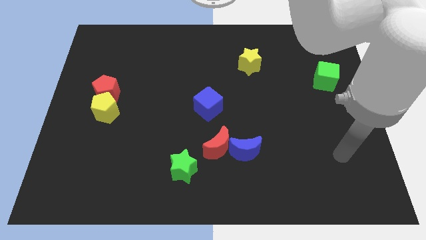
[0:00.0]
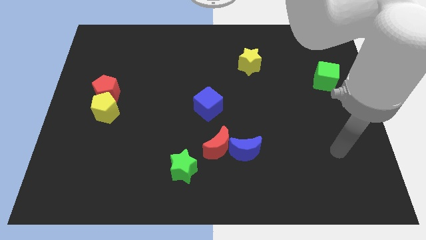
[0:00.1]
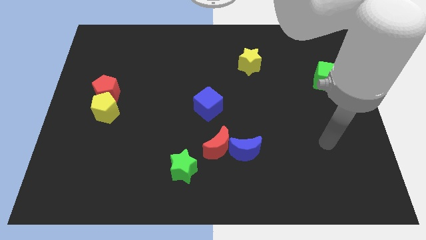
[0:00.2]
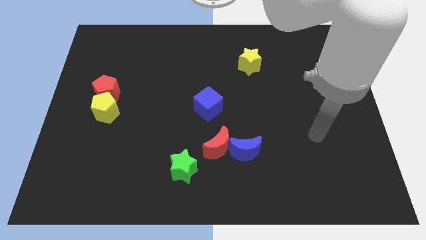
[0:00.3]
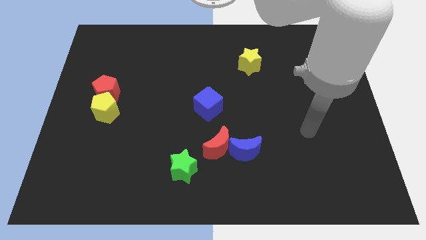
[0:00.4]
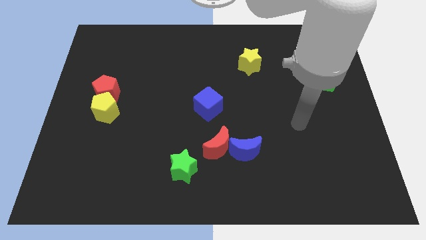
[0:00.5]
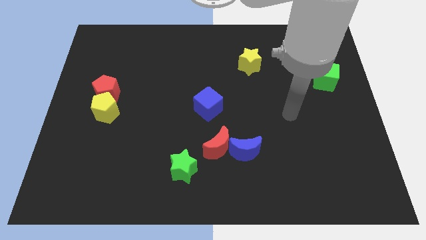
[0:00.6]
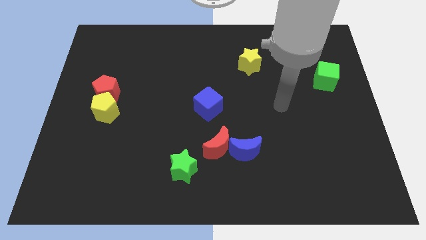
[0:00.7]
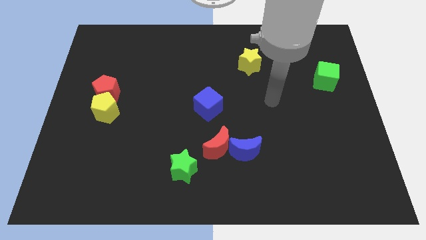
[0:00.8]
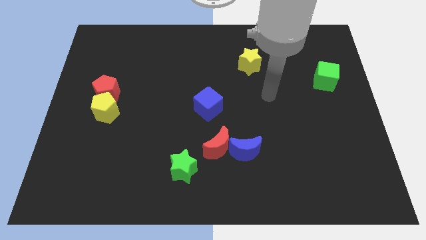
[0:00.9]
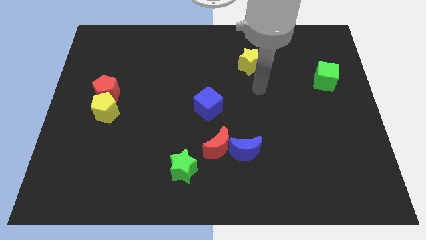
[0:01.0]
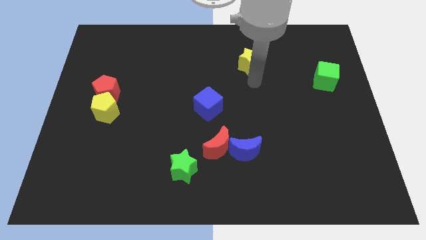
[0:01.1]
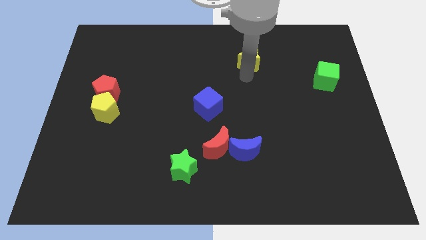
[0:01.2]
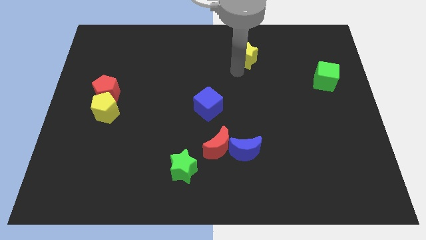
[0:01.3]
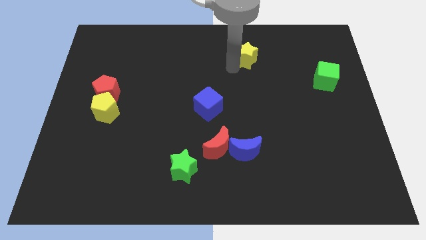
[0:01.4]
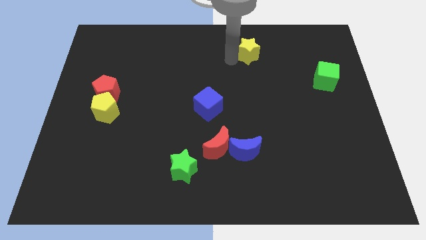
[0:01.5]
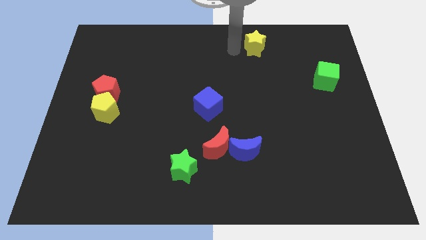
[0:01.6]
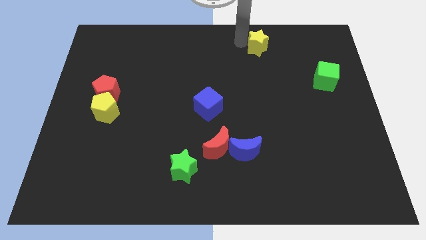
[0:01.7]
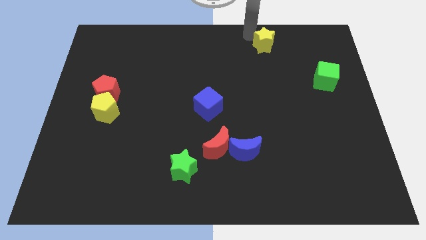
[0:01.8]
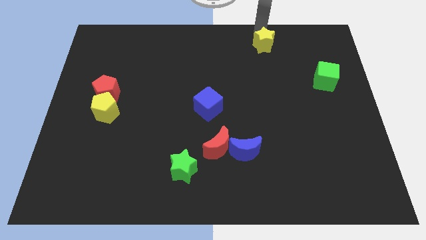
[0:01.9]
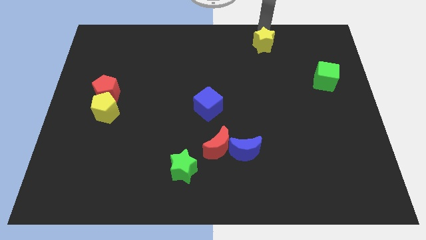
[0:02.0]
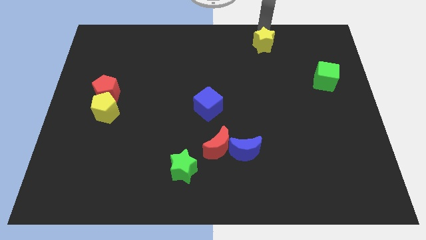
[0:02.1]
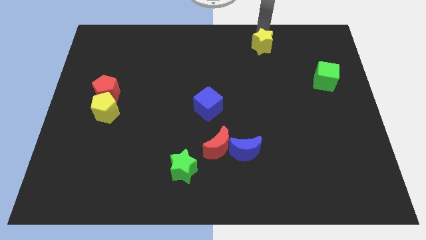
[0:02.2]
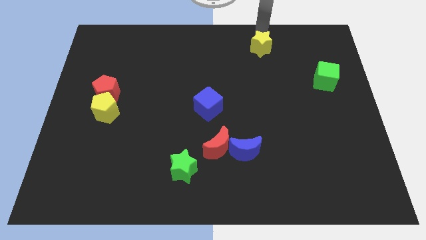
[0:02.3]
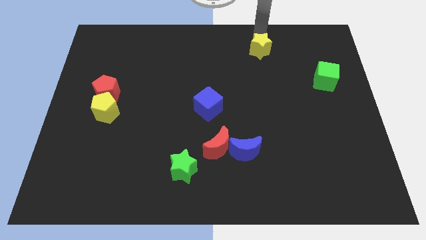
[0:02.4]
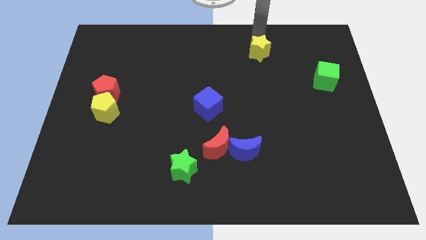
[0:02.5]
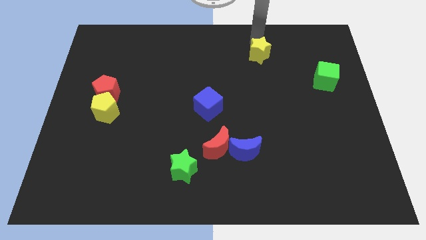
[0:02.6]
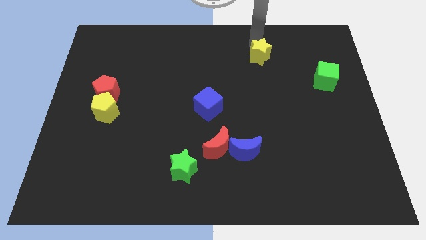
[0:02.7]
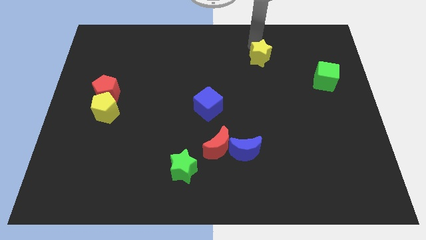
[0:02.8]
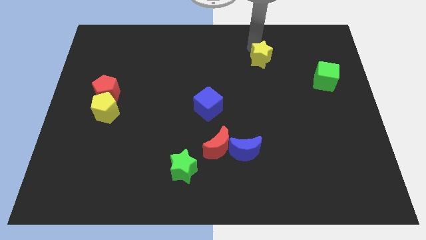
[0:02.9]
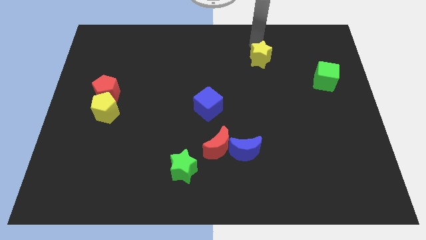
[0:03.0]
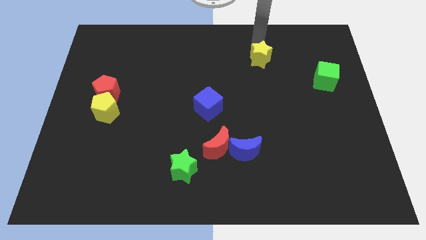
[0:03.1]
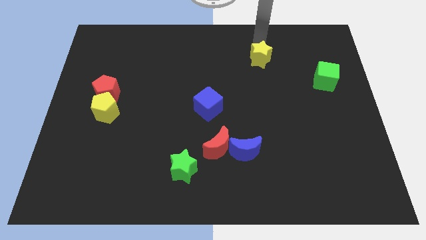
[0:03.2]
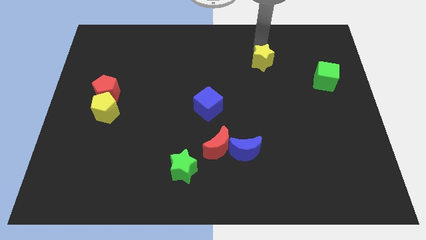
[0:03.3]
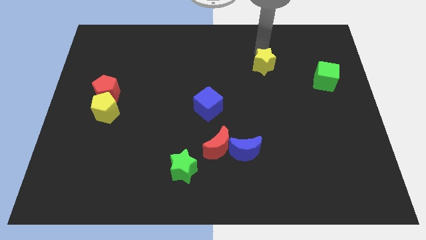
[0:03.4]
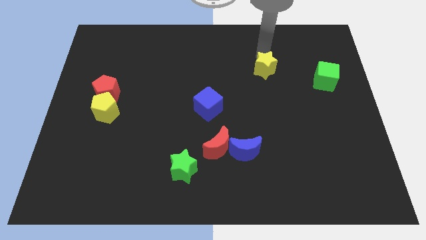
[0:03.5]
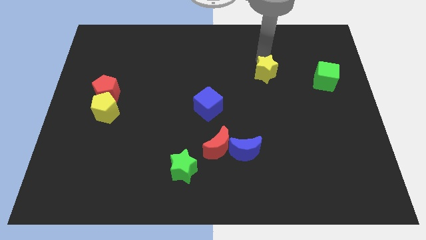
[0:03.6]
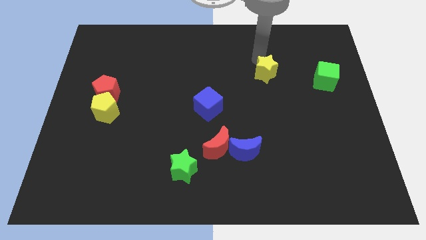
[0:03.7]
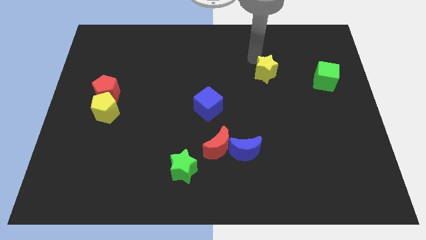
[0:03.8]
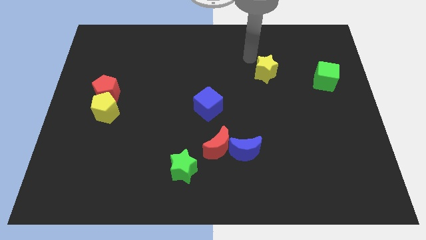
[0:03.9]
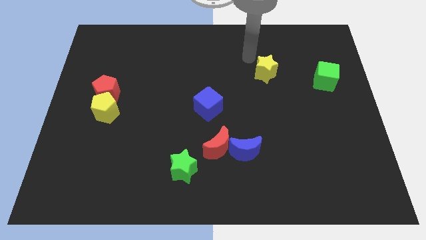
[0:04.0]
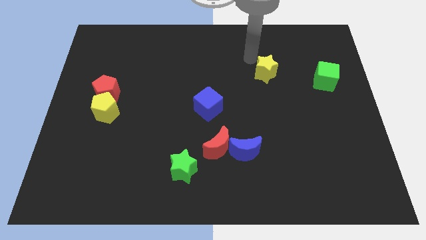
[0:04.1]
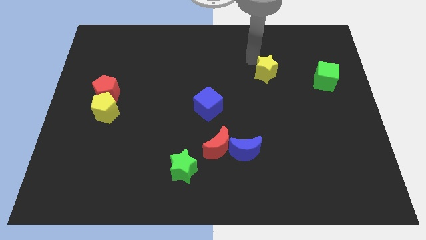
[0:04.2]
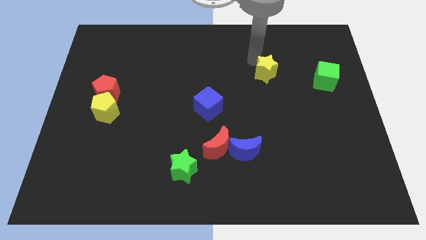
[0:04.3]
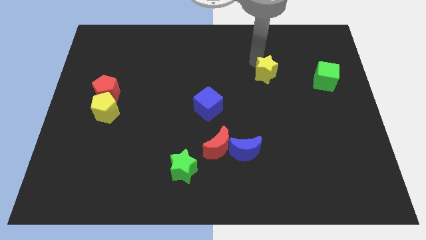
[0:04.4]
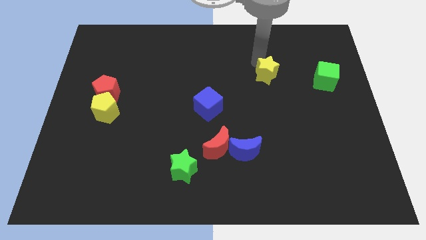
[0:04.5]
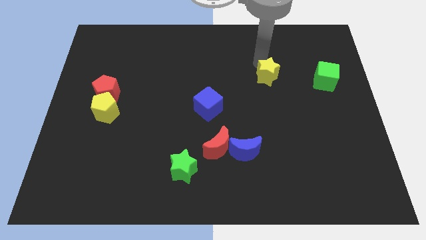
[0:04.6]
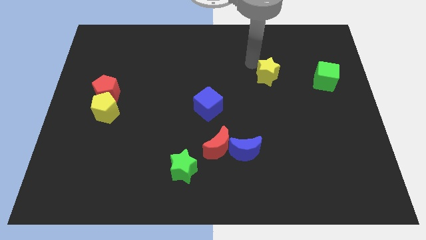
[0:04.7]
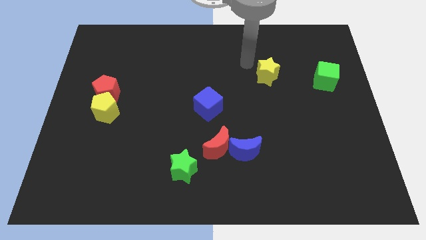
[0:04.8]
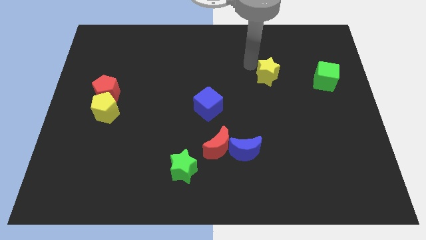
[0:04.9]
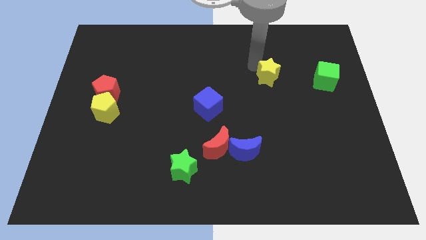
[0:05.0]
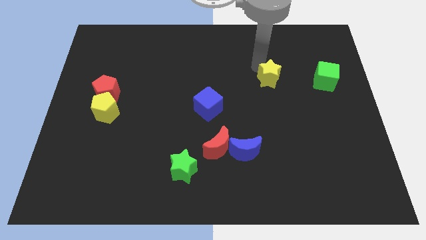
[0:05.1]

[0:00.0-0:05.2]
slightly move the yellow star downwards and then to the right

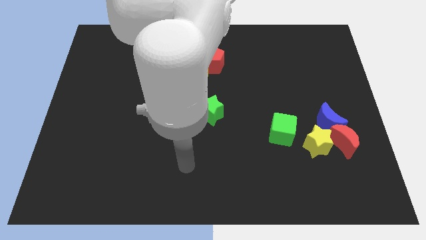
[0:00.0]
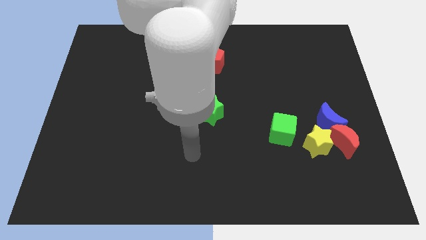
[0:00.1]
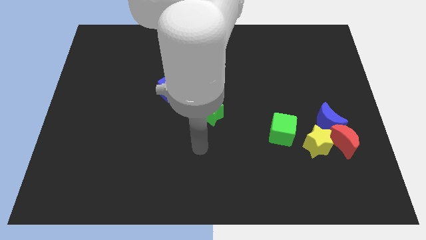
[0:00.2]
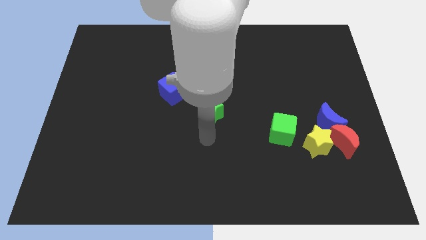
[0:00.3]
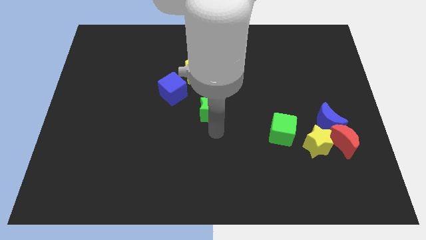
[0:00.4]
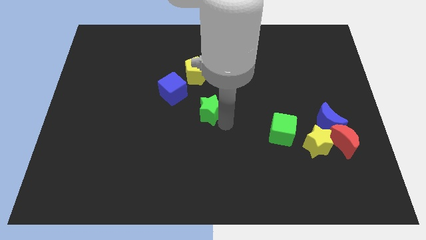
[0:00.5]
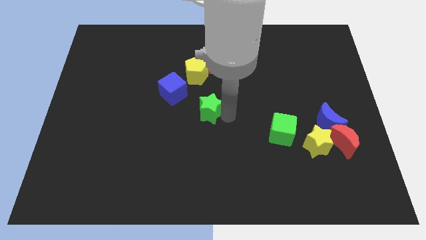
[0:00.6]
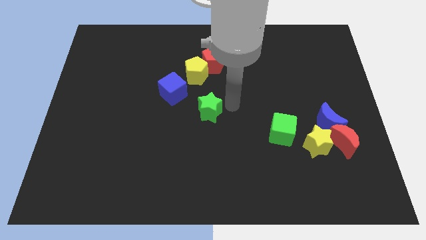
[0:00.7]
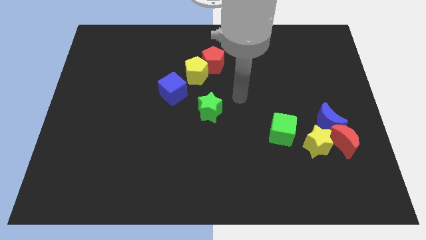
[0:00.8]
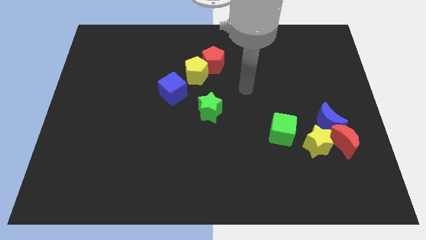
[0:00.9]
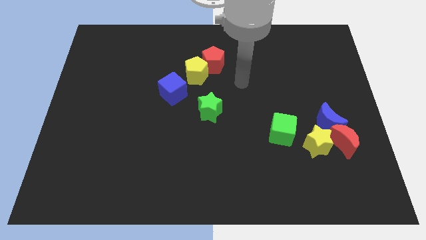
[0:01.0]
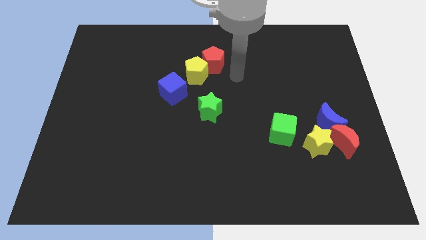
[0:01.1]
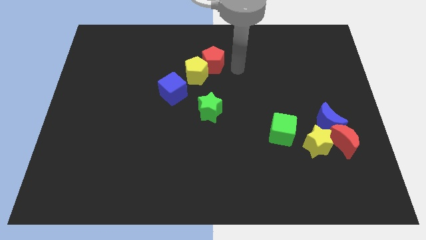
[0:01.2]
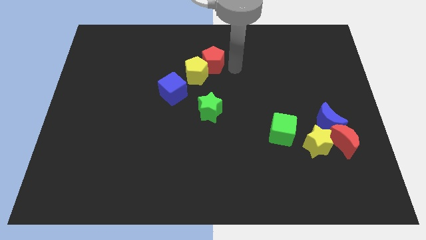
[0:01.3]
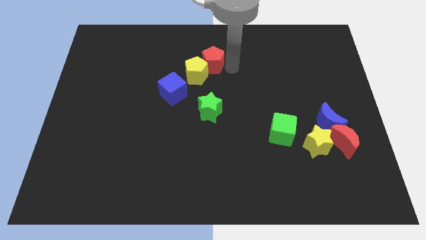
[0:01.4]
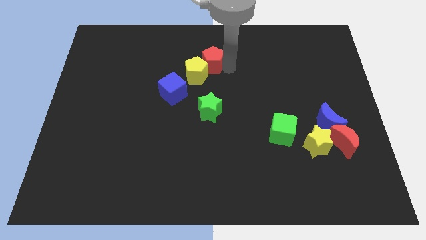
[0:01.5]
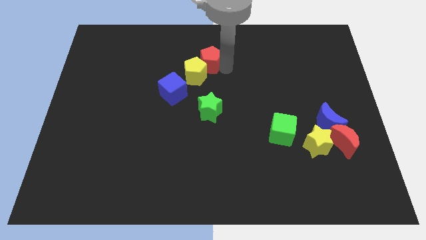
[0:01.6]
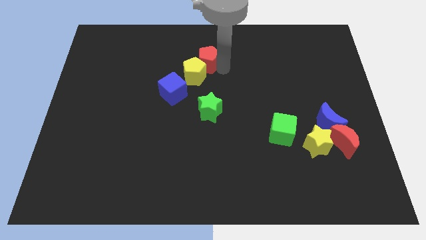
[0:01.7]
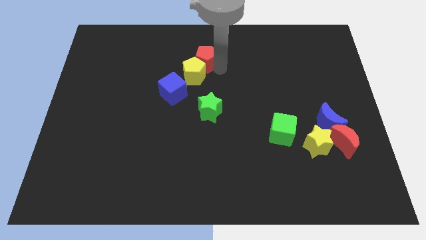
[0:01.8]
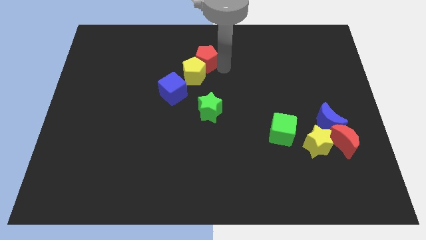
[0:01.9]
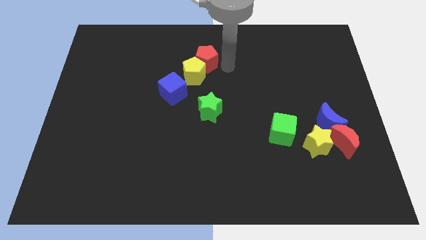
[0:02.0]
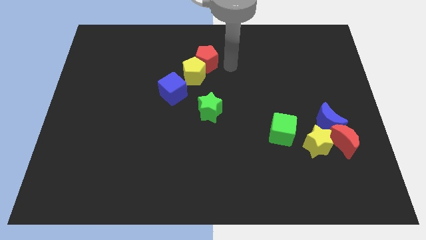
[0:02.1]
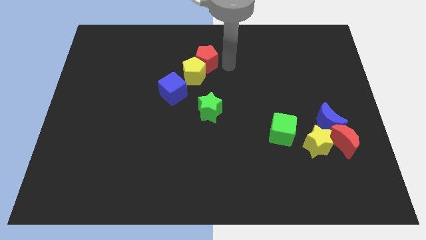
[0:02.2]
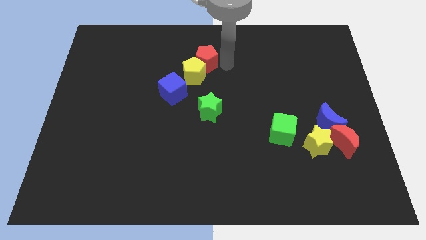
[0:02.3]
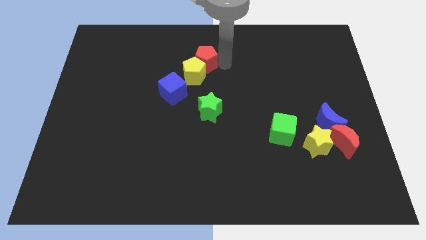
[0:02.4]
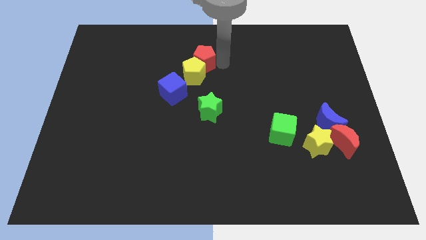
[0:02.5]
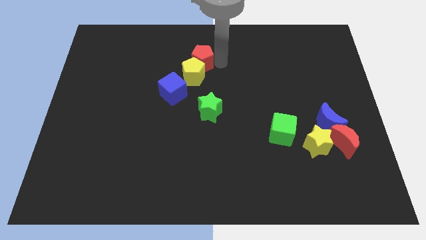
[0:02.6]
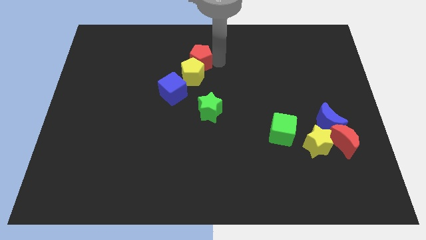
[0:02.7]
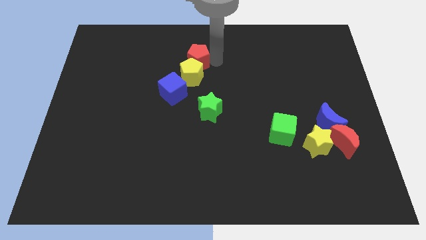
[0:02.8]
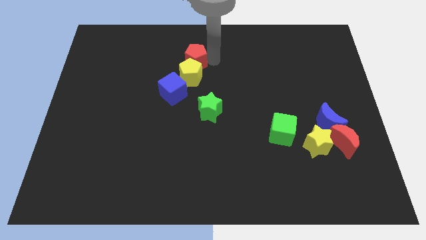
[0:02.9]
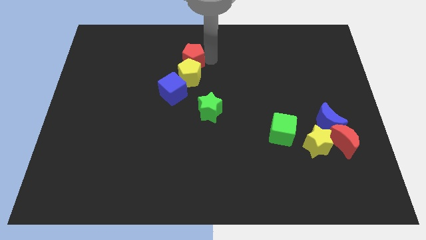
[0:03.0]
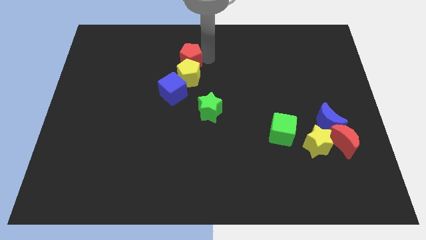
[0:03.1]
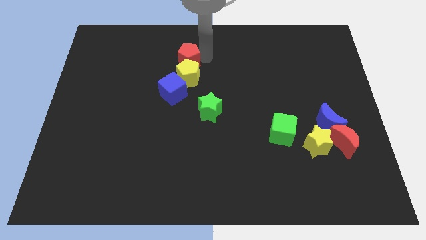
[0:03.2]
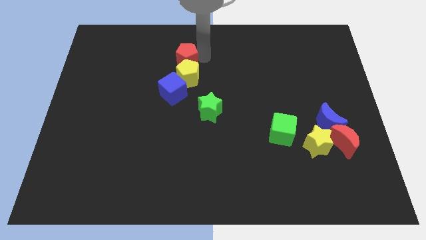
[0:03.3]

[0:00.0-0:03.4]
push the red pentagon a bit to the left
